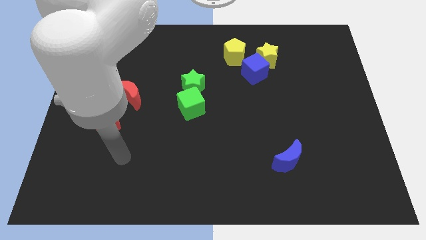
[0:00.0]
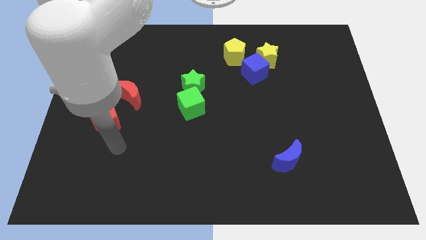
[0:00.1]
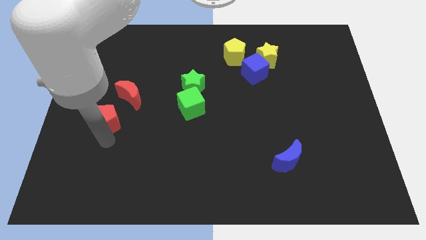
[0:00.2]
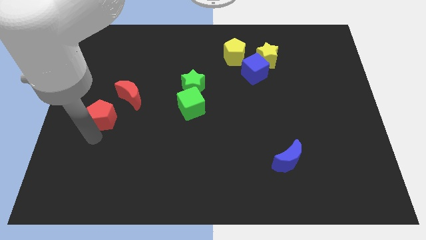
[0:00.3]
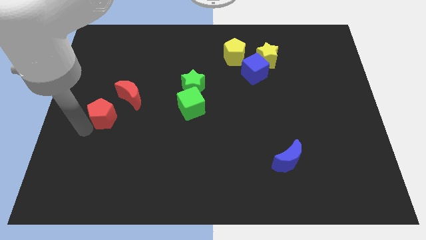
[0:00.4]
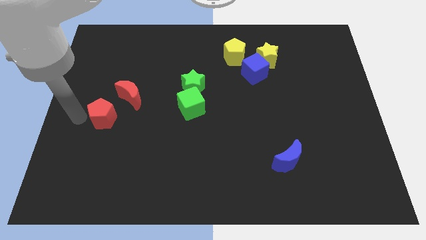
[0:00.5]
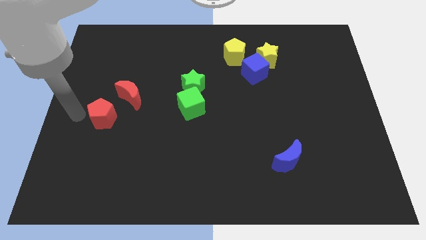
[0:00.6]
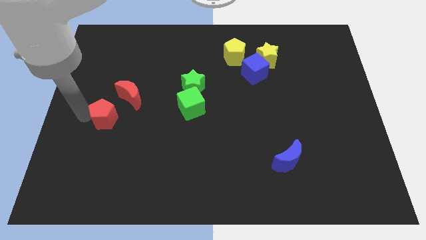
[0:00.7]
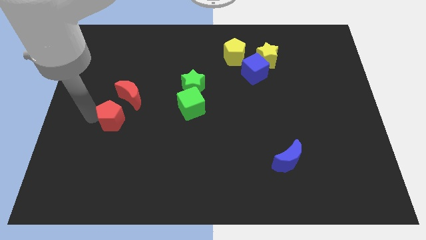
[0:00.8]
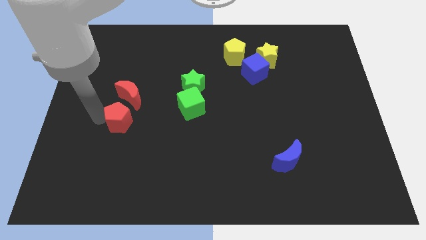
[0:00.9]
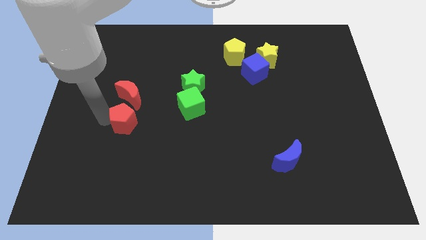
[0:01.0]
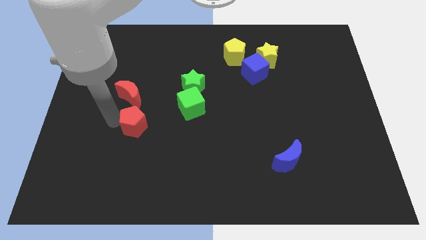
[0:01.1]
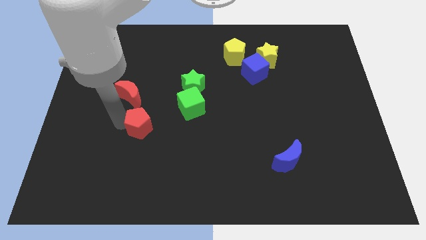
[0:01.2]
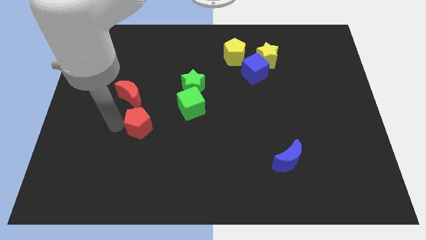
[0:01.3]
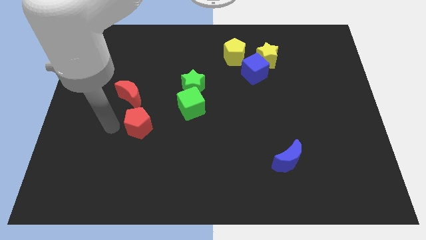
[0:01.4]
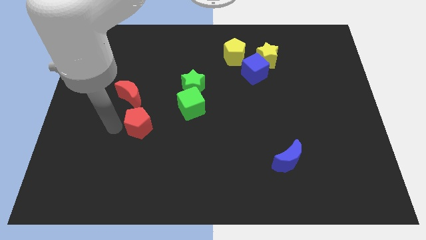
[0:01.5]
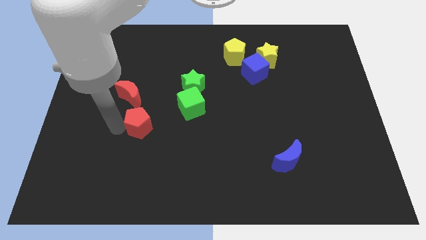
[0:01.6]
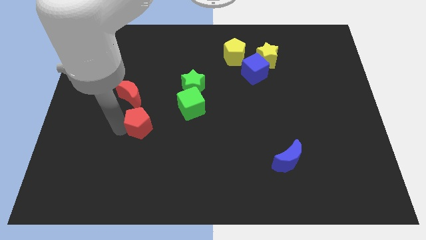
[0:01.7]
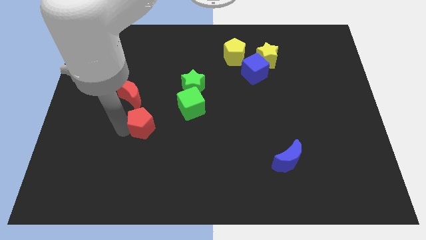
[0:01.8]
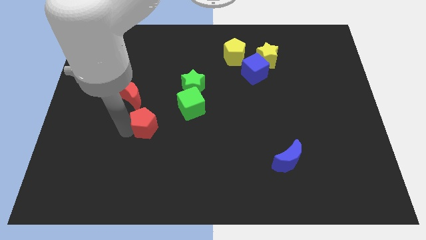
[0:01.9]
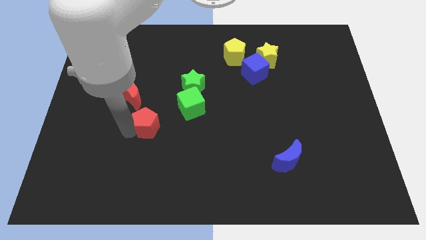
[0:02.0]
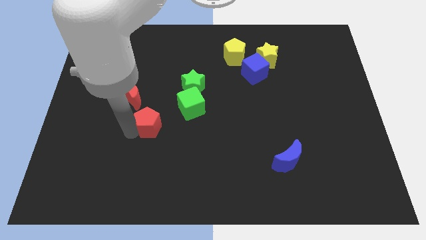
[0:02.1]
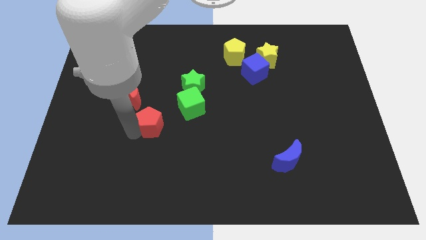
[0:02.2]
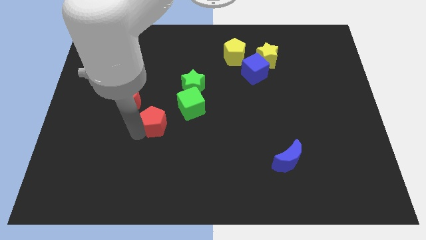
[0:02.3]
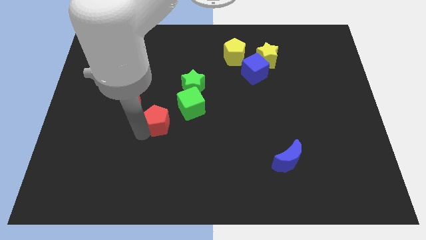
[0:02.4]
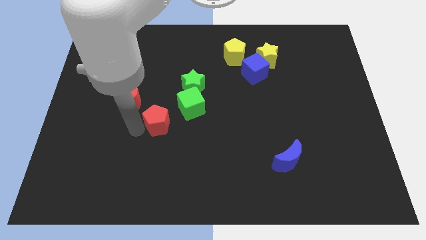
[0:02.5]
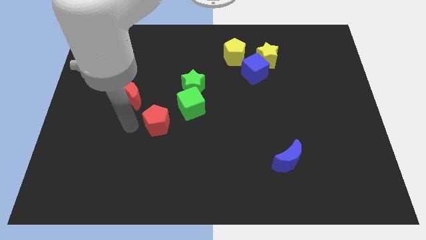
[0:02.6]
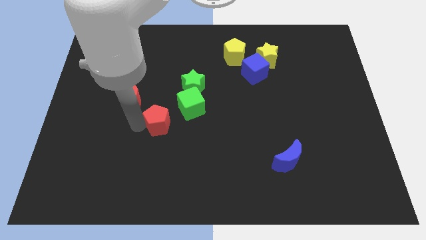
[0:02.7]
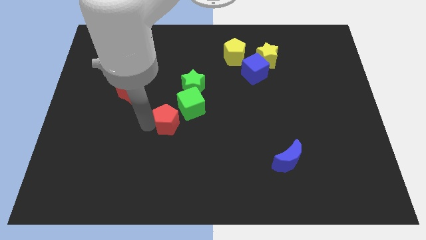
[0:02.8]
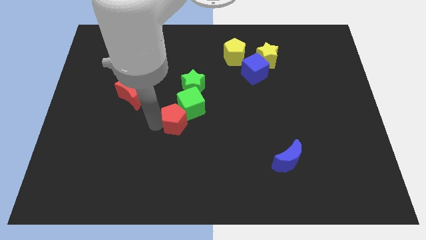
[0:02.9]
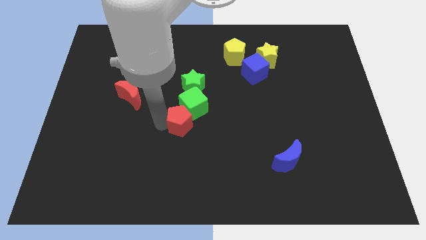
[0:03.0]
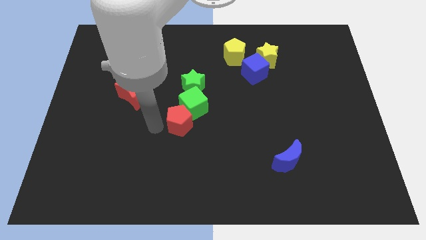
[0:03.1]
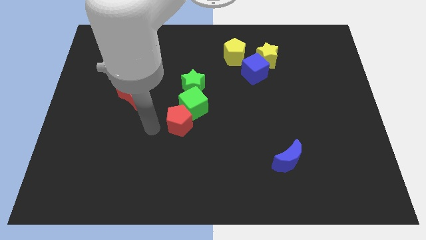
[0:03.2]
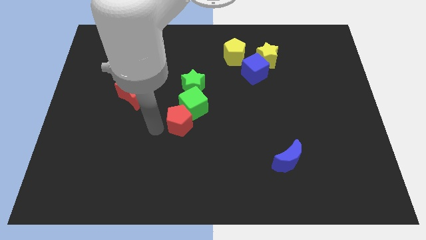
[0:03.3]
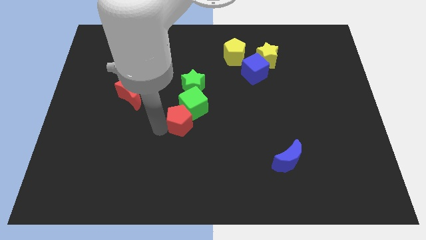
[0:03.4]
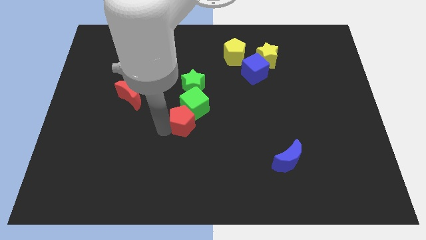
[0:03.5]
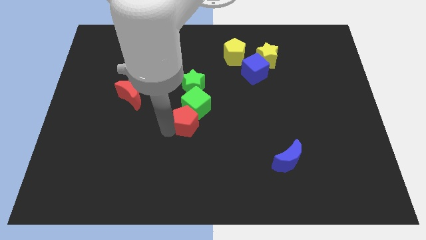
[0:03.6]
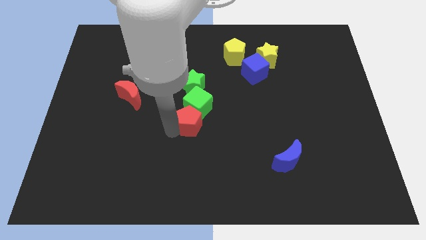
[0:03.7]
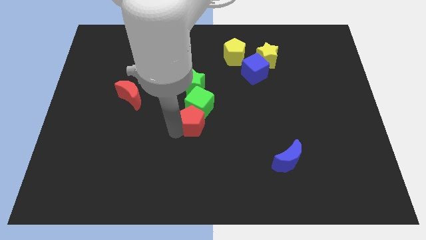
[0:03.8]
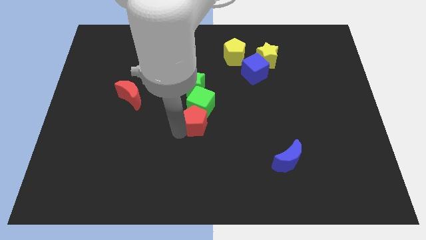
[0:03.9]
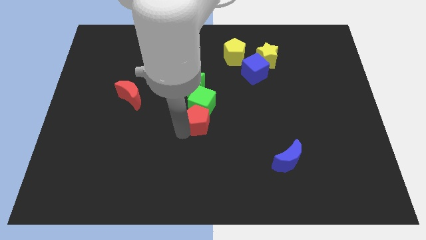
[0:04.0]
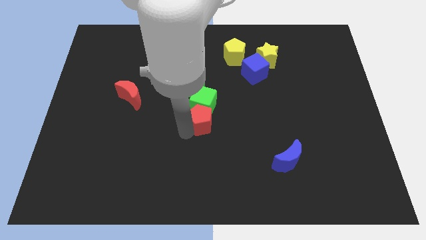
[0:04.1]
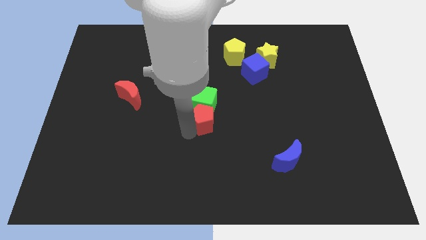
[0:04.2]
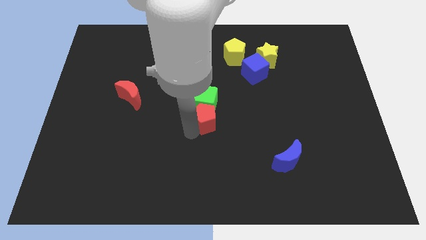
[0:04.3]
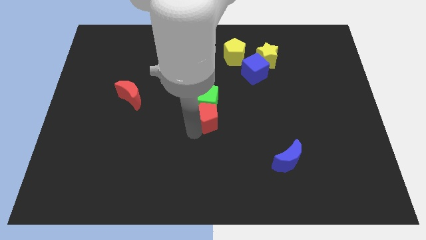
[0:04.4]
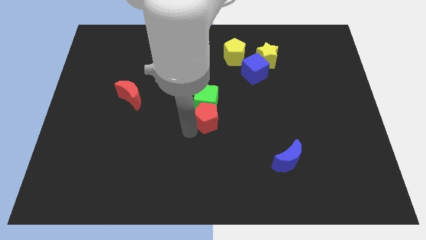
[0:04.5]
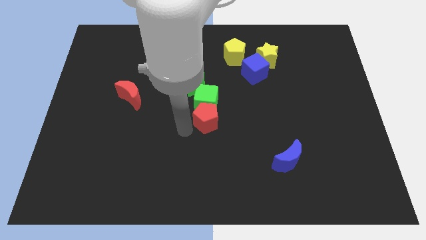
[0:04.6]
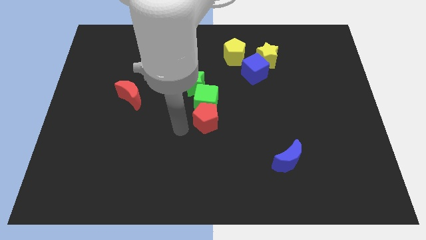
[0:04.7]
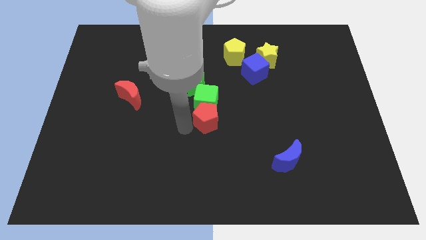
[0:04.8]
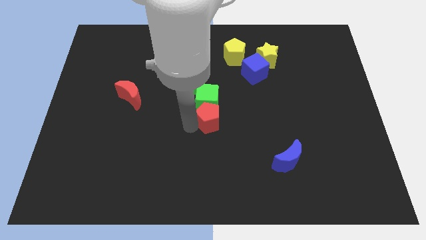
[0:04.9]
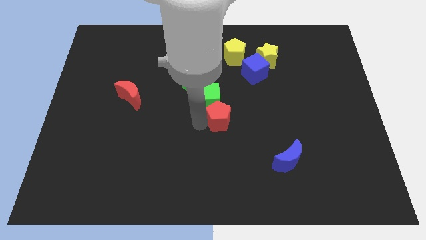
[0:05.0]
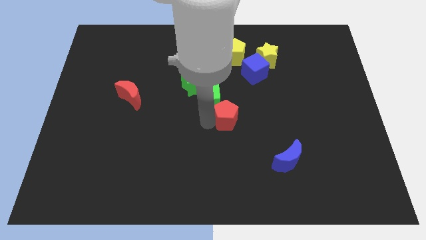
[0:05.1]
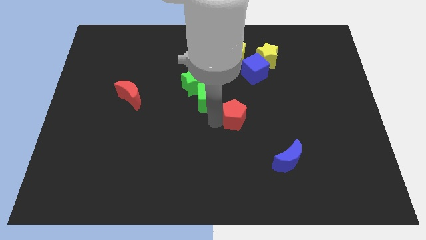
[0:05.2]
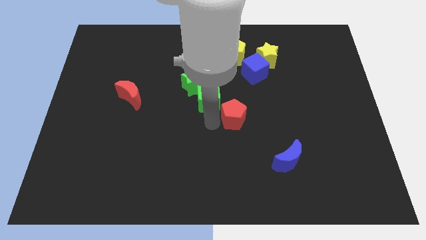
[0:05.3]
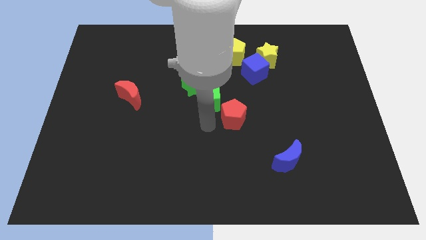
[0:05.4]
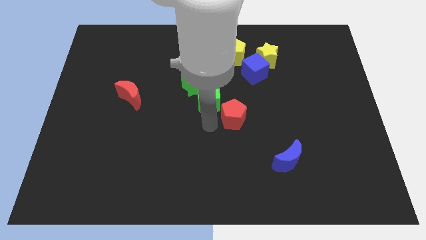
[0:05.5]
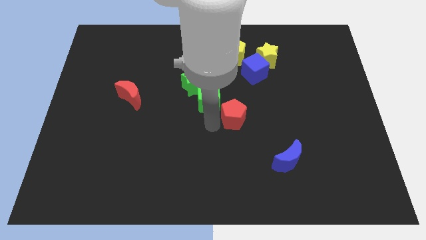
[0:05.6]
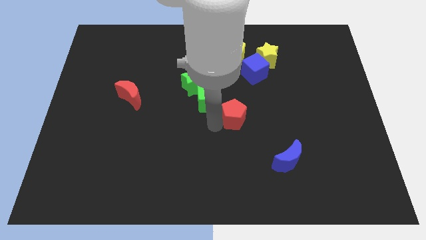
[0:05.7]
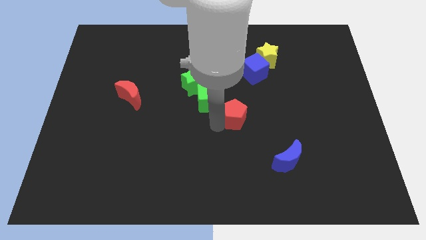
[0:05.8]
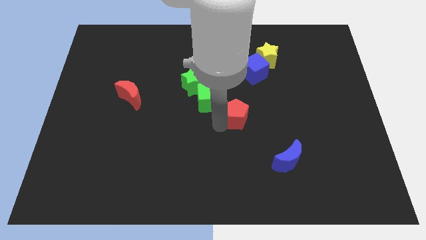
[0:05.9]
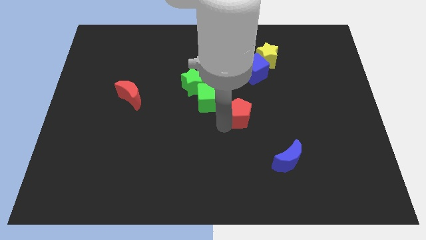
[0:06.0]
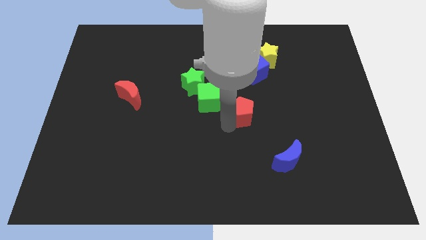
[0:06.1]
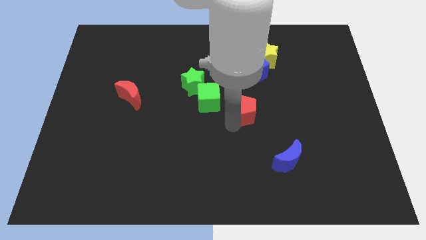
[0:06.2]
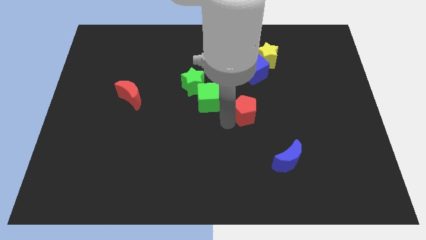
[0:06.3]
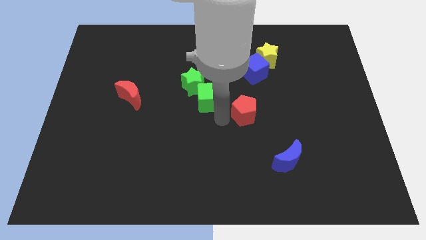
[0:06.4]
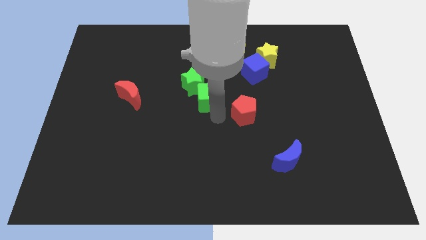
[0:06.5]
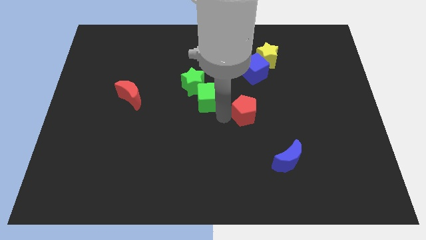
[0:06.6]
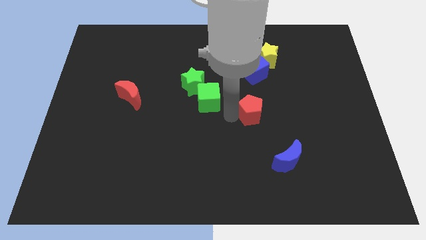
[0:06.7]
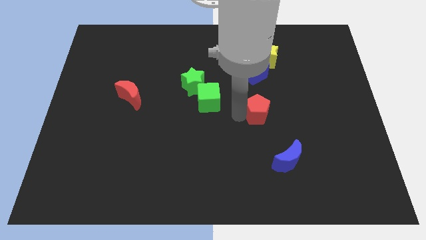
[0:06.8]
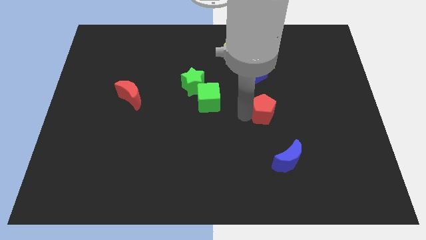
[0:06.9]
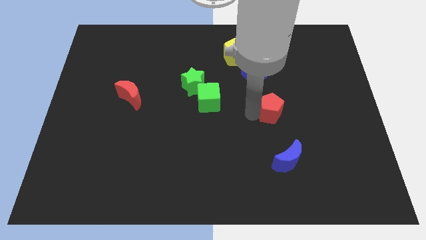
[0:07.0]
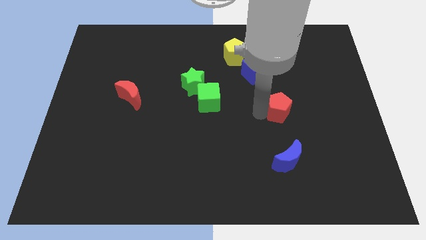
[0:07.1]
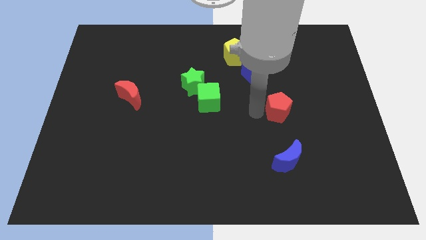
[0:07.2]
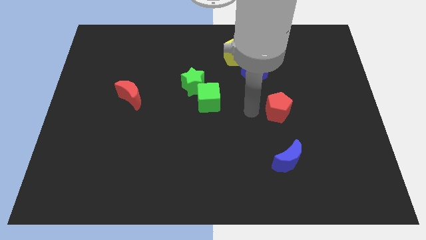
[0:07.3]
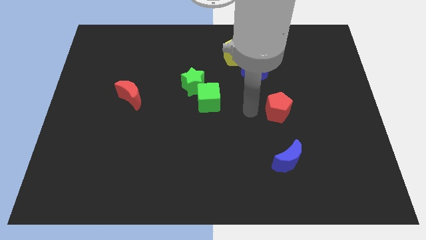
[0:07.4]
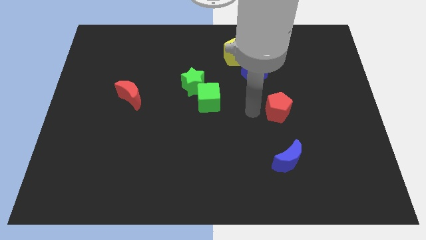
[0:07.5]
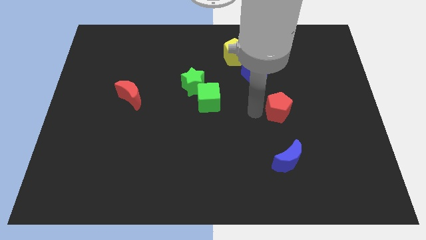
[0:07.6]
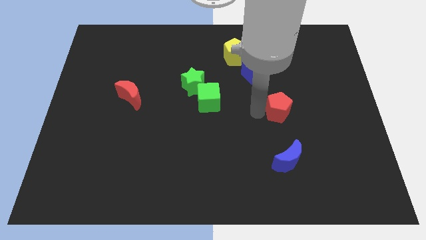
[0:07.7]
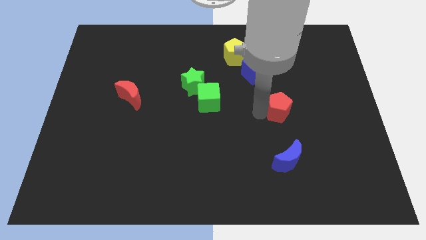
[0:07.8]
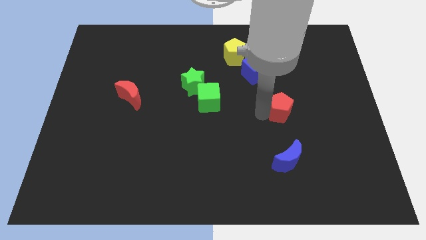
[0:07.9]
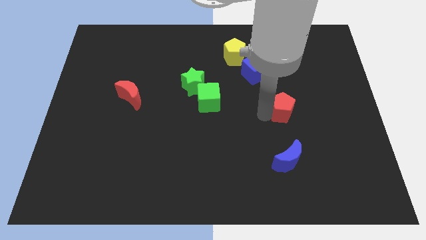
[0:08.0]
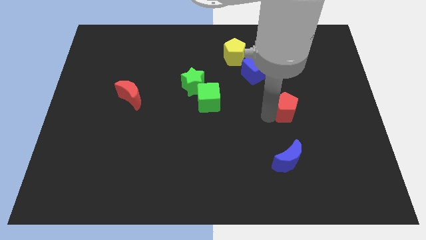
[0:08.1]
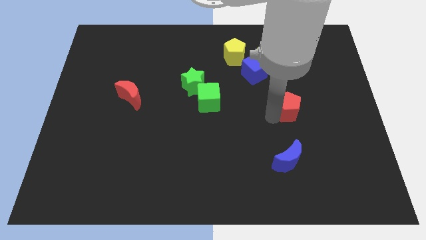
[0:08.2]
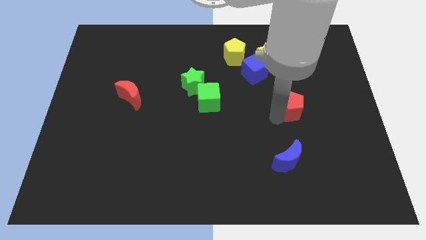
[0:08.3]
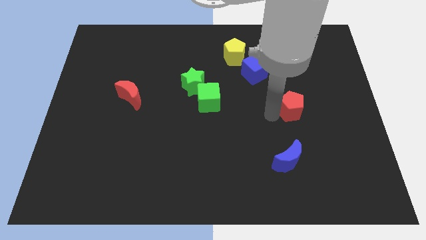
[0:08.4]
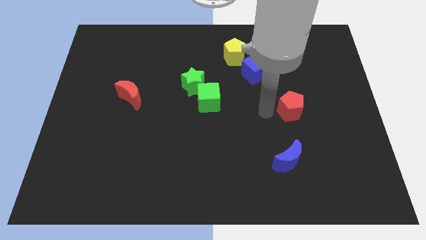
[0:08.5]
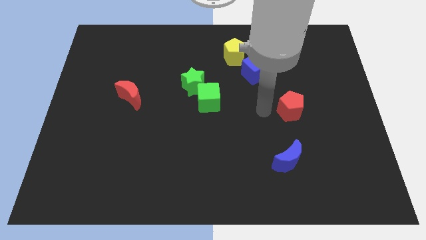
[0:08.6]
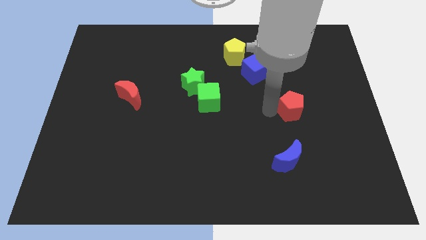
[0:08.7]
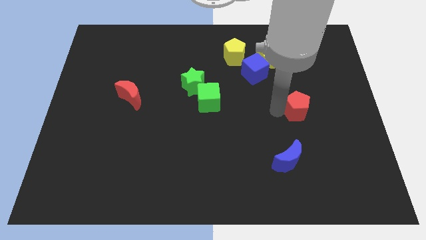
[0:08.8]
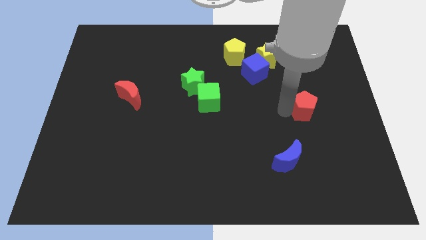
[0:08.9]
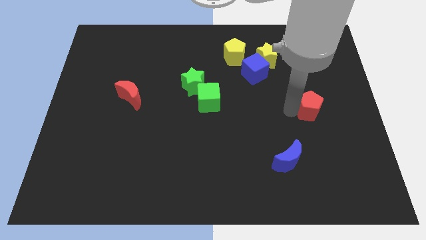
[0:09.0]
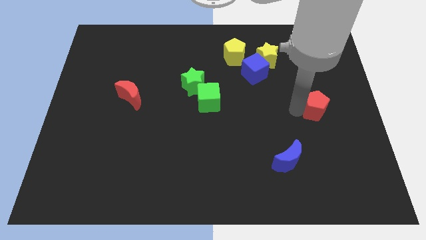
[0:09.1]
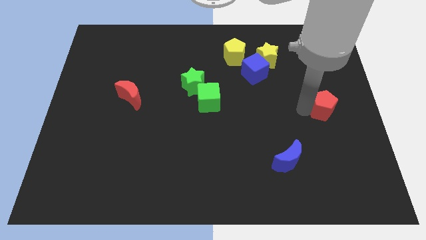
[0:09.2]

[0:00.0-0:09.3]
move the red pentagon to the right side
